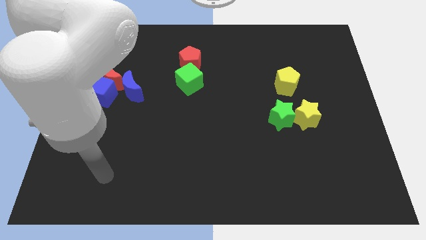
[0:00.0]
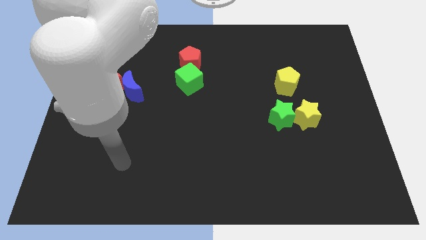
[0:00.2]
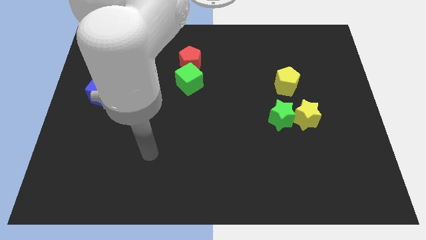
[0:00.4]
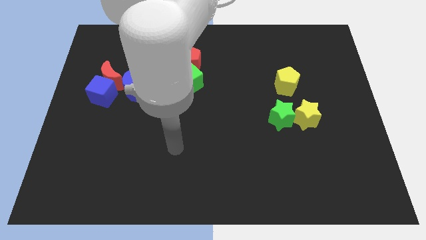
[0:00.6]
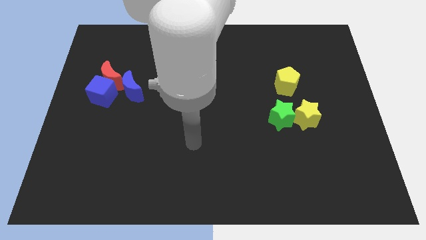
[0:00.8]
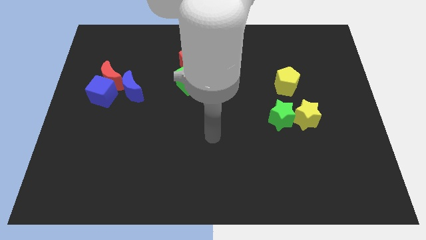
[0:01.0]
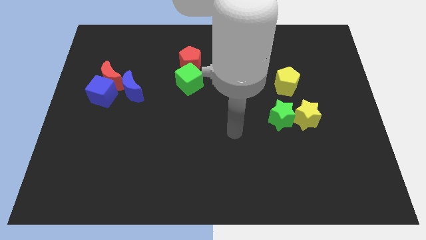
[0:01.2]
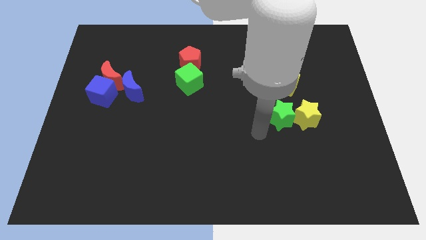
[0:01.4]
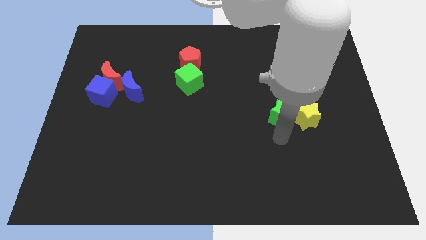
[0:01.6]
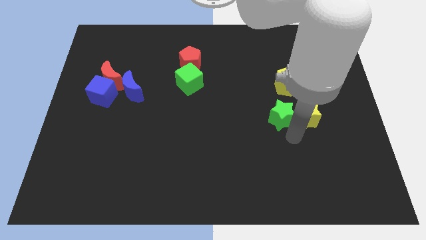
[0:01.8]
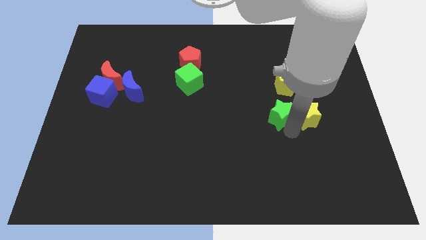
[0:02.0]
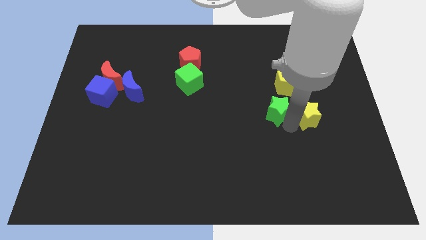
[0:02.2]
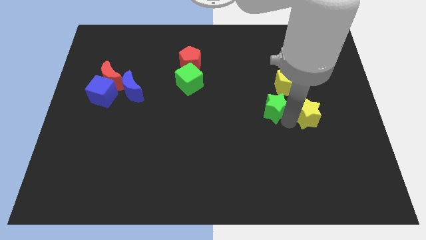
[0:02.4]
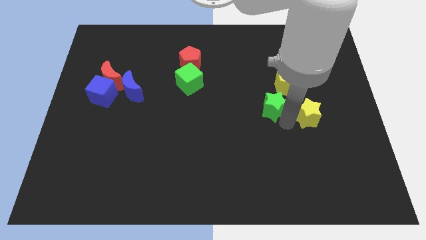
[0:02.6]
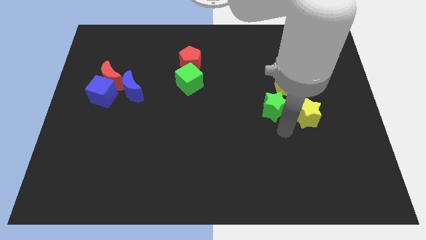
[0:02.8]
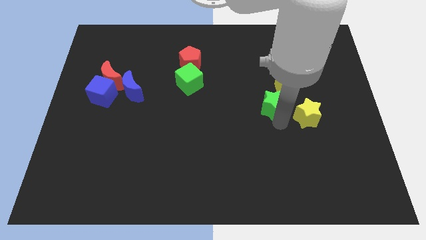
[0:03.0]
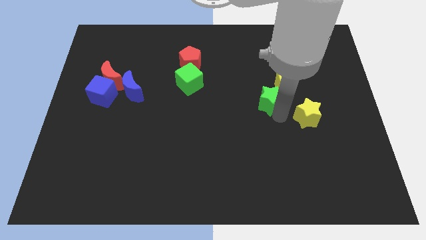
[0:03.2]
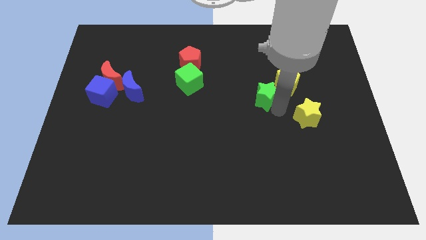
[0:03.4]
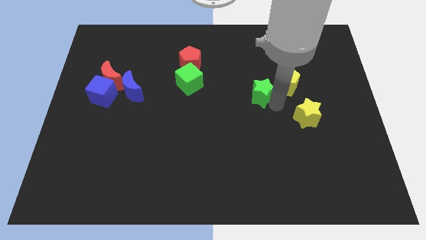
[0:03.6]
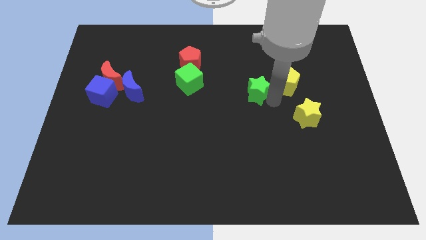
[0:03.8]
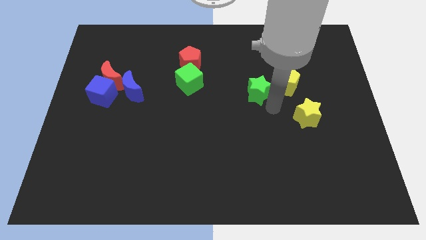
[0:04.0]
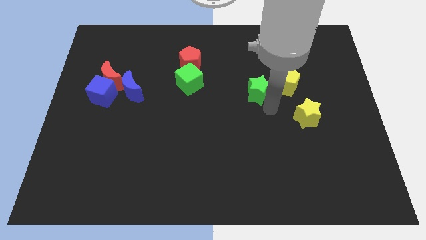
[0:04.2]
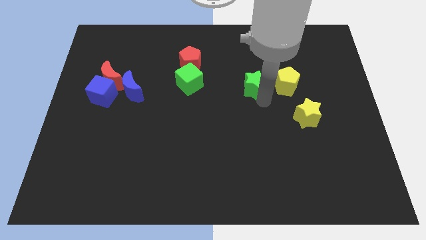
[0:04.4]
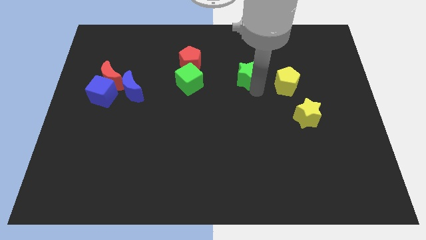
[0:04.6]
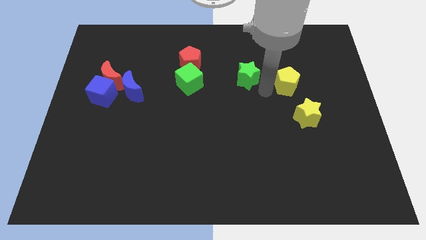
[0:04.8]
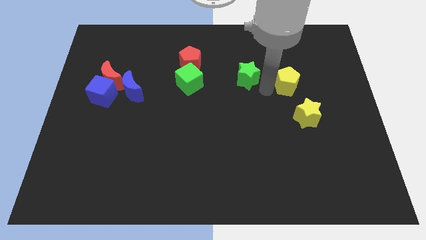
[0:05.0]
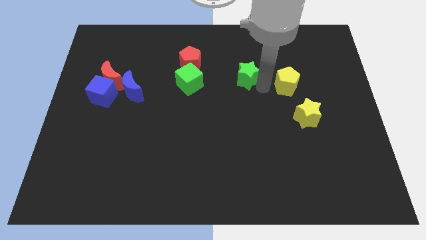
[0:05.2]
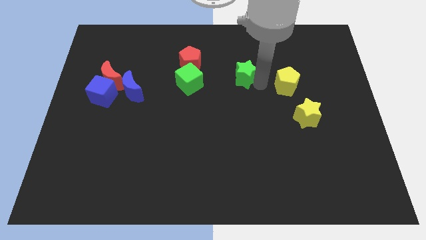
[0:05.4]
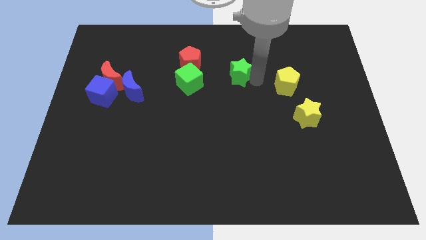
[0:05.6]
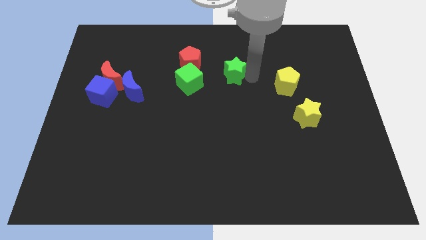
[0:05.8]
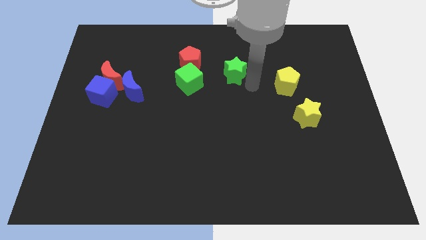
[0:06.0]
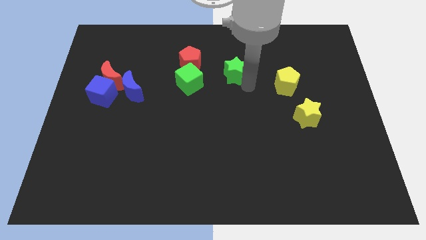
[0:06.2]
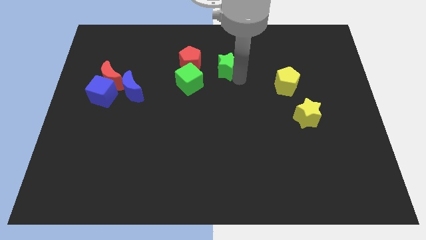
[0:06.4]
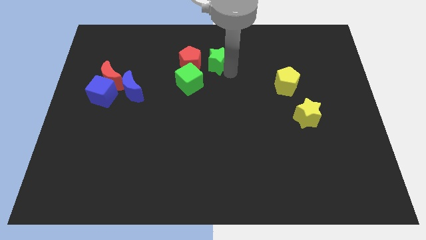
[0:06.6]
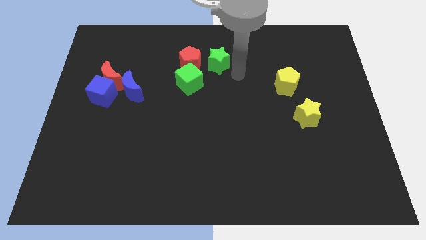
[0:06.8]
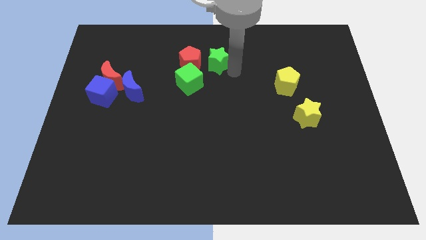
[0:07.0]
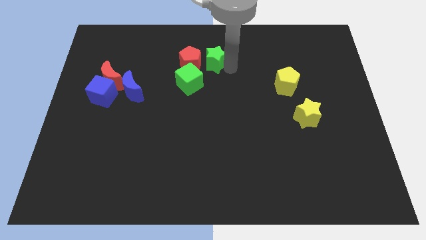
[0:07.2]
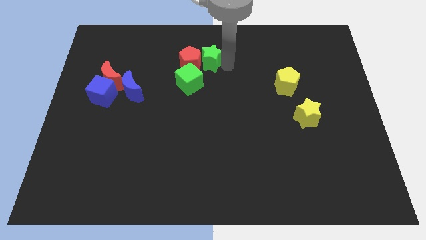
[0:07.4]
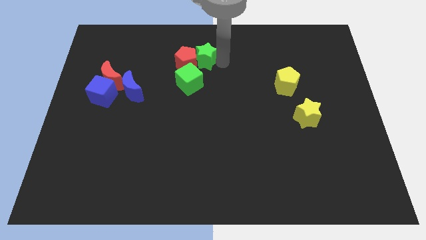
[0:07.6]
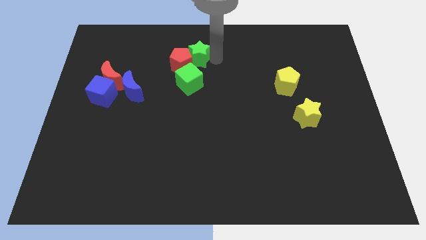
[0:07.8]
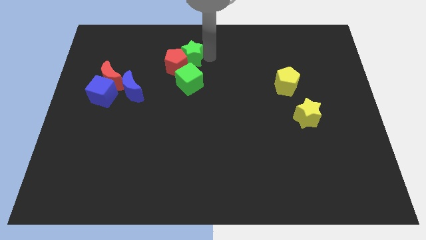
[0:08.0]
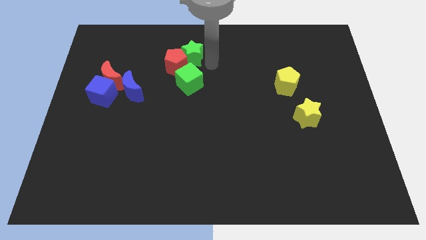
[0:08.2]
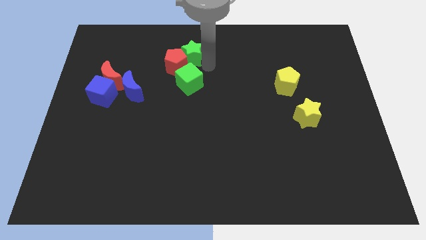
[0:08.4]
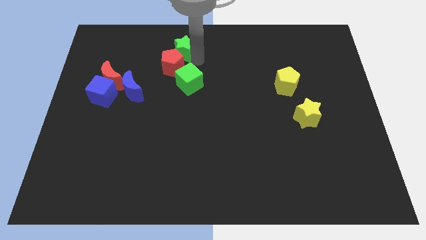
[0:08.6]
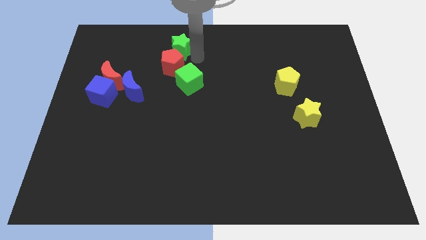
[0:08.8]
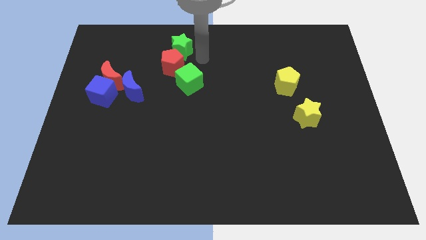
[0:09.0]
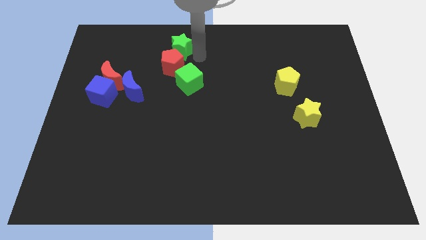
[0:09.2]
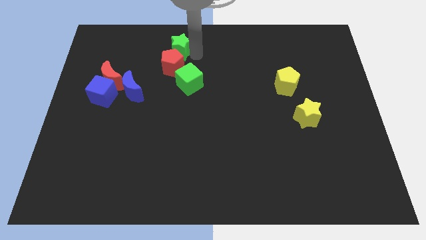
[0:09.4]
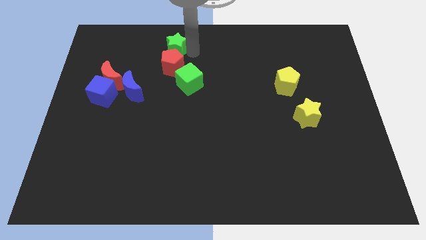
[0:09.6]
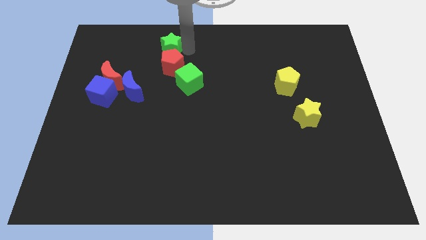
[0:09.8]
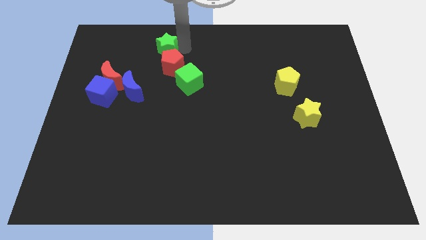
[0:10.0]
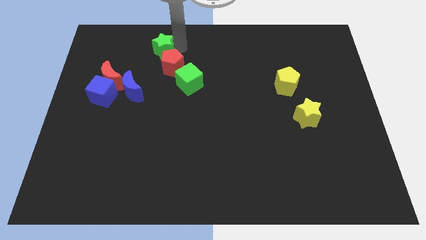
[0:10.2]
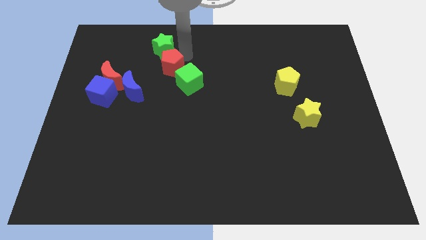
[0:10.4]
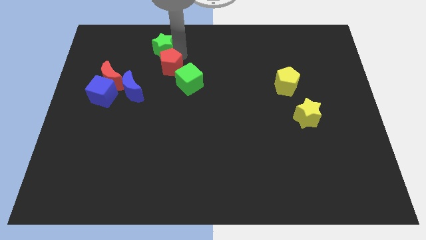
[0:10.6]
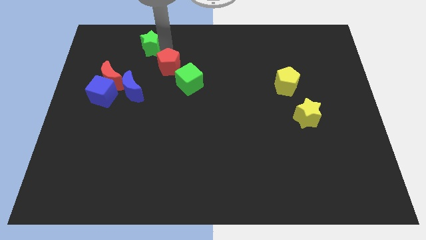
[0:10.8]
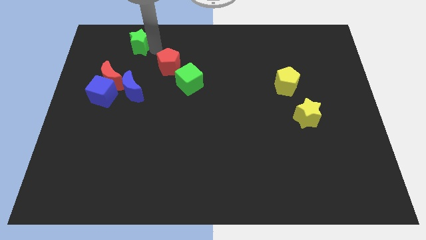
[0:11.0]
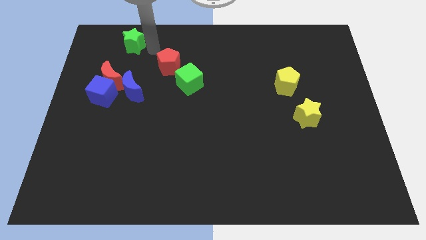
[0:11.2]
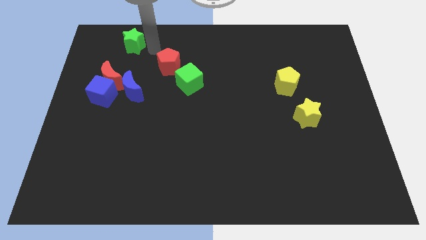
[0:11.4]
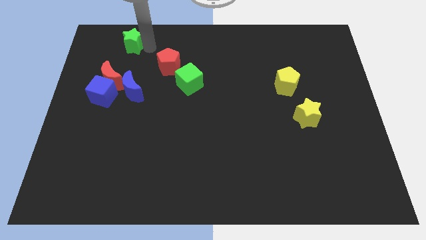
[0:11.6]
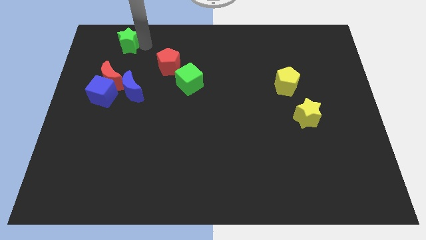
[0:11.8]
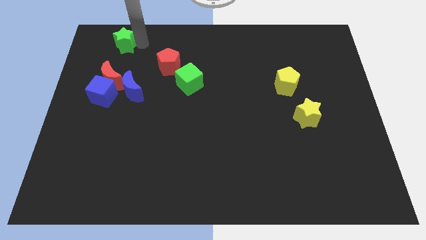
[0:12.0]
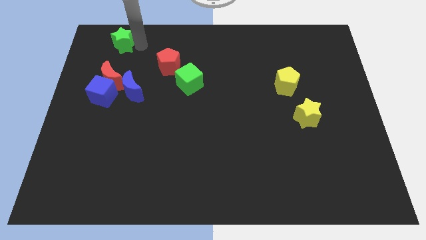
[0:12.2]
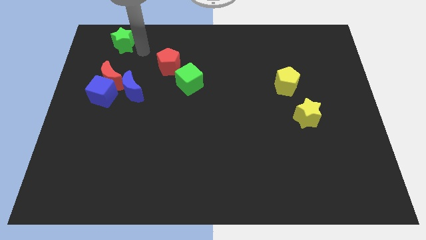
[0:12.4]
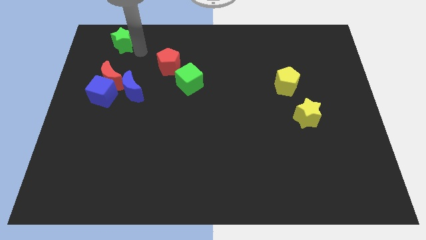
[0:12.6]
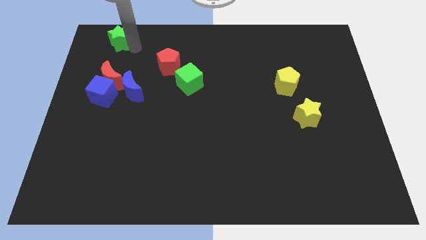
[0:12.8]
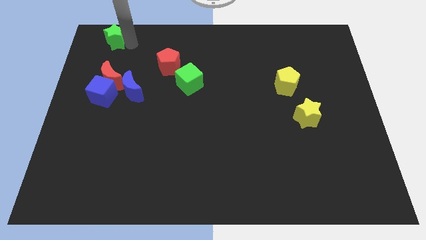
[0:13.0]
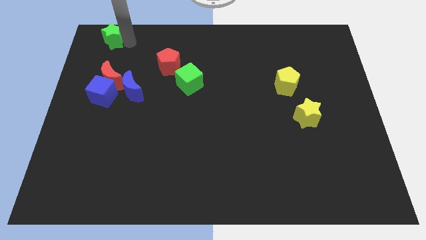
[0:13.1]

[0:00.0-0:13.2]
put the green star to the upper left corner
